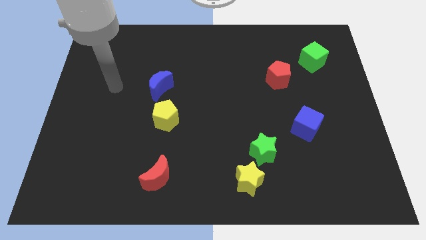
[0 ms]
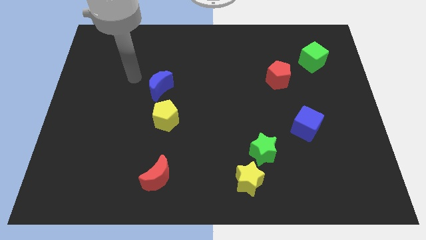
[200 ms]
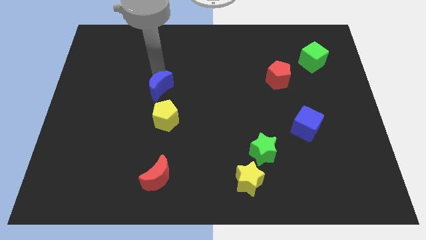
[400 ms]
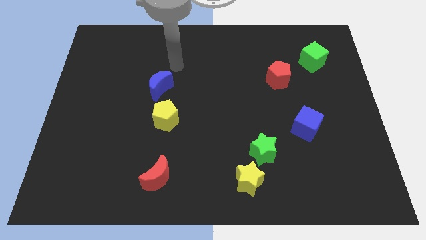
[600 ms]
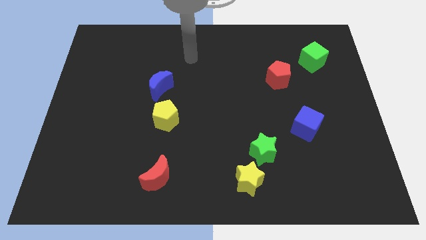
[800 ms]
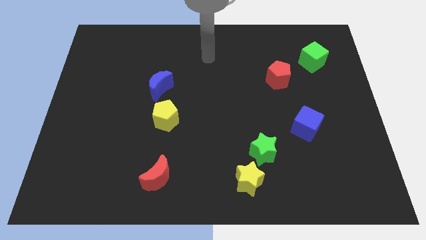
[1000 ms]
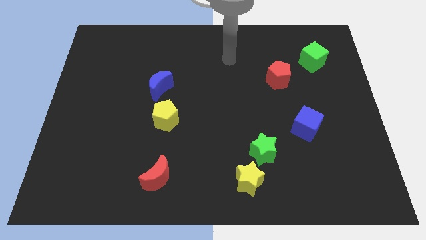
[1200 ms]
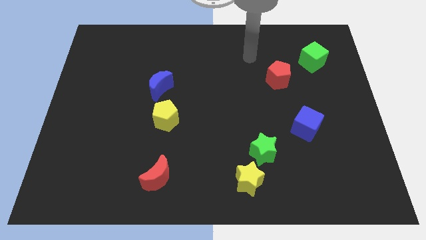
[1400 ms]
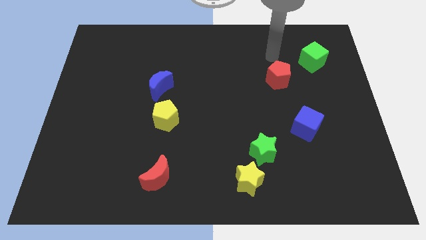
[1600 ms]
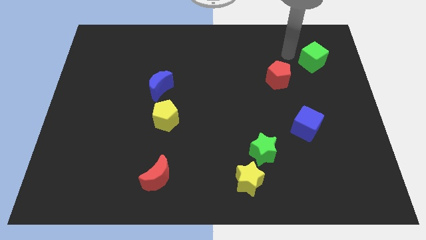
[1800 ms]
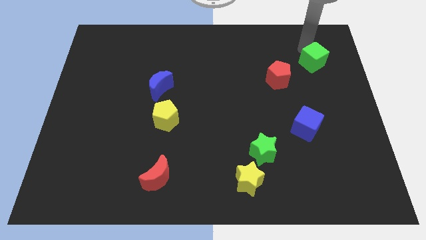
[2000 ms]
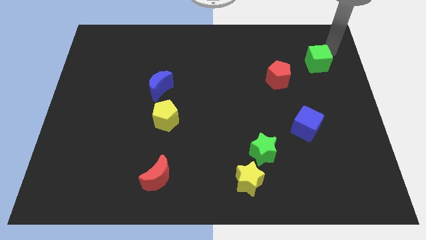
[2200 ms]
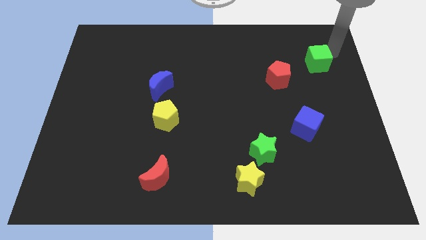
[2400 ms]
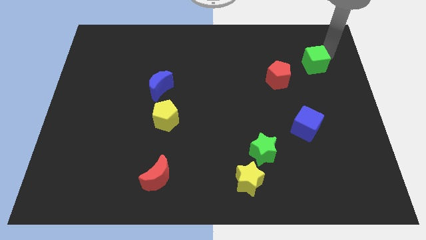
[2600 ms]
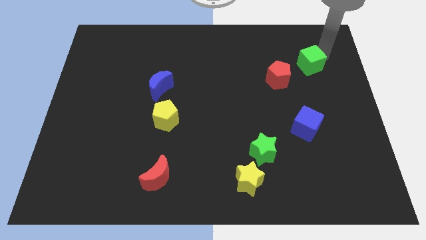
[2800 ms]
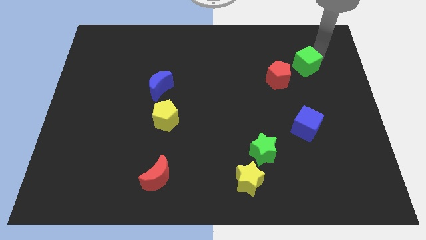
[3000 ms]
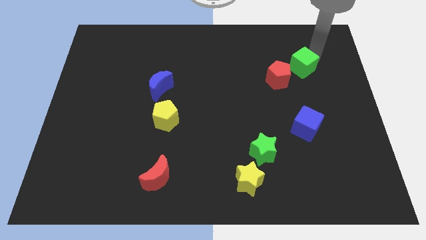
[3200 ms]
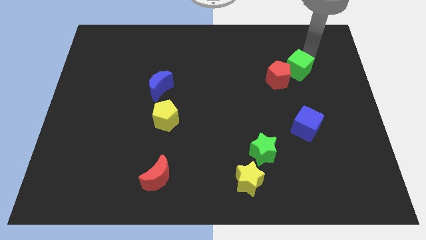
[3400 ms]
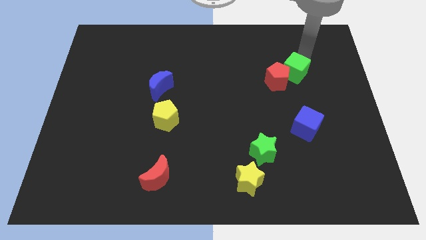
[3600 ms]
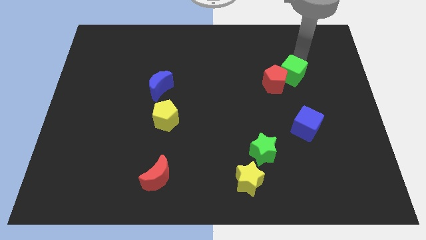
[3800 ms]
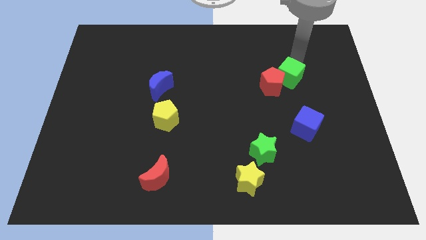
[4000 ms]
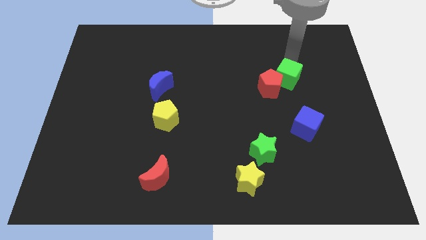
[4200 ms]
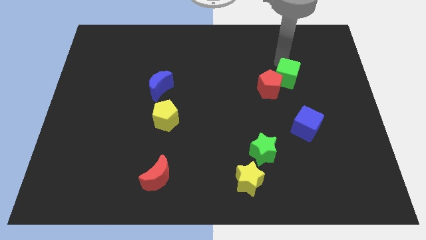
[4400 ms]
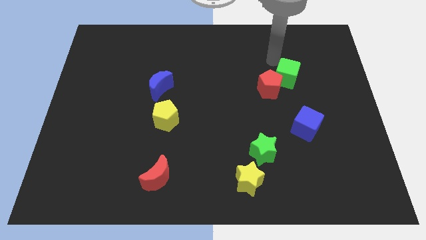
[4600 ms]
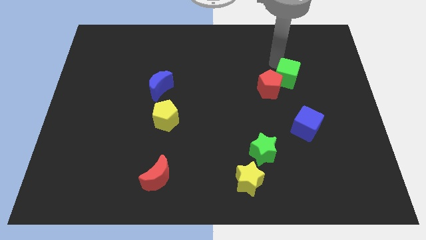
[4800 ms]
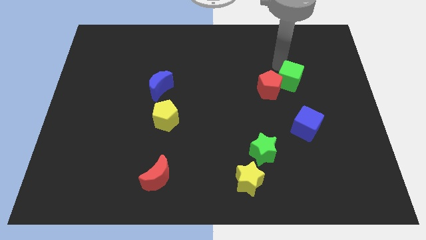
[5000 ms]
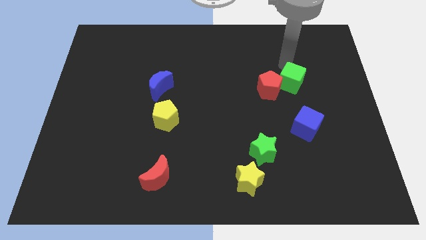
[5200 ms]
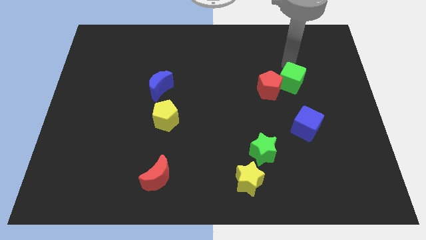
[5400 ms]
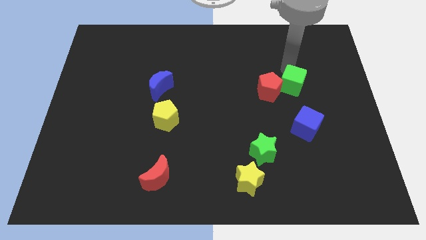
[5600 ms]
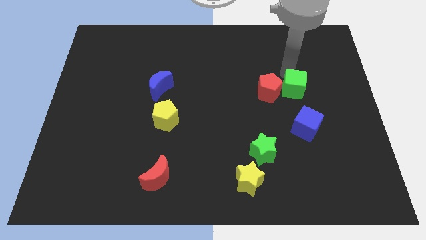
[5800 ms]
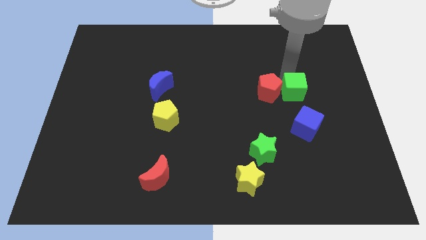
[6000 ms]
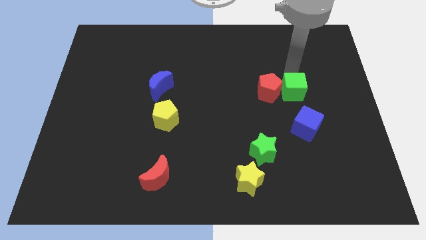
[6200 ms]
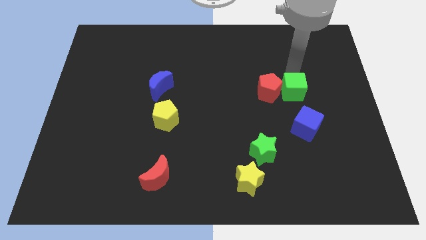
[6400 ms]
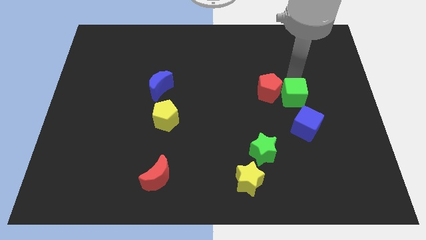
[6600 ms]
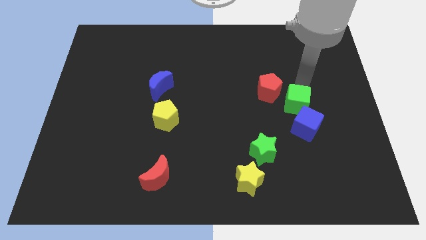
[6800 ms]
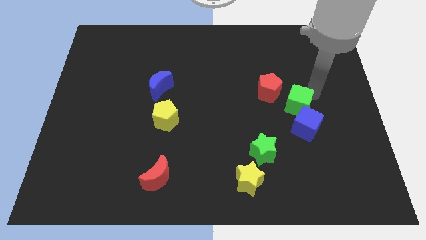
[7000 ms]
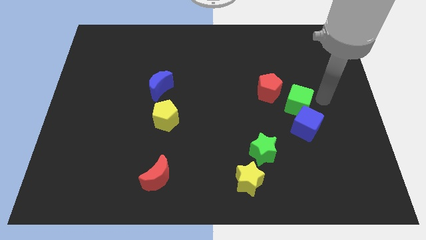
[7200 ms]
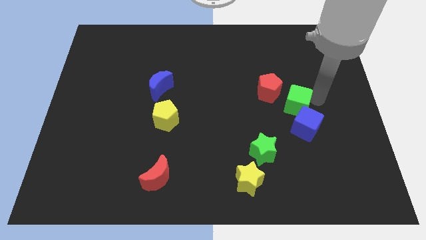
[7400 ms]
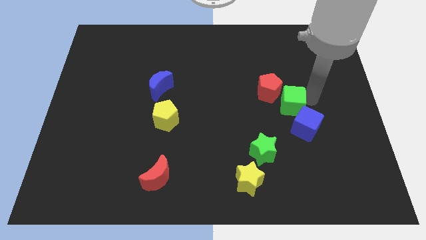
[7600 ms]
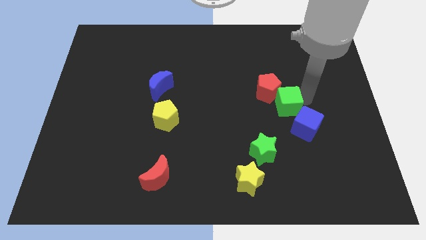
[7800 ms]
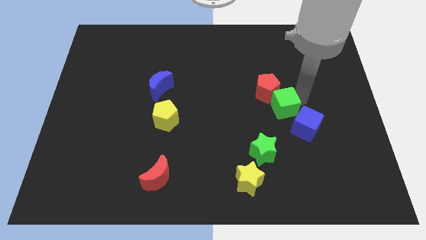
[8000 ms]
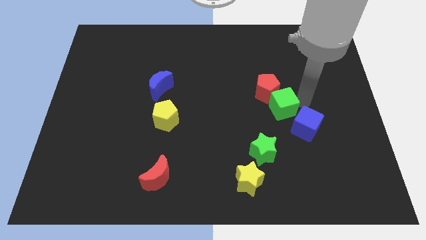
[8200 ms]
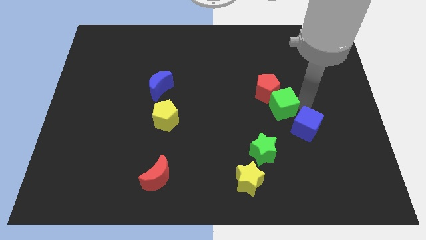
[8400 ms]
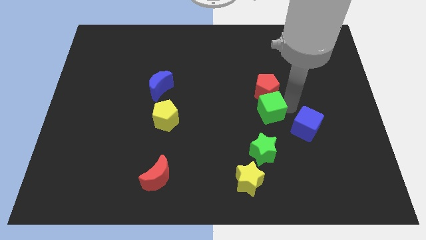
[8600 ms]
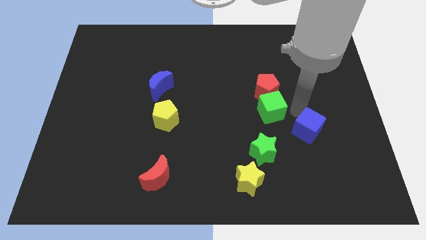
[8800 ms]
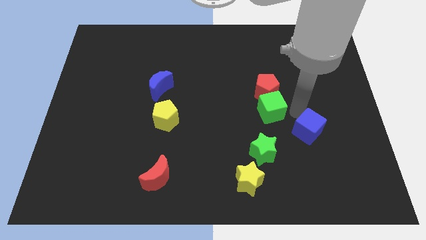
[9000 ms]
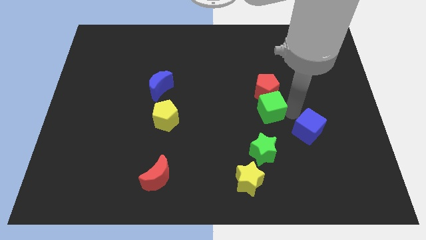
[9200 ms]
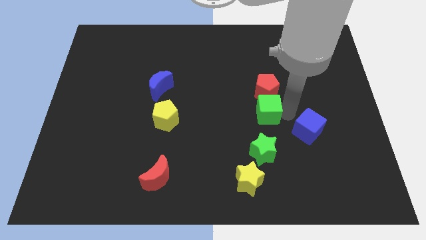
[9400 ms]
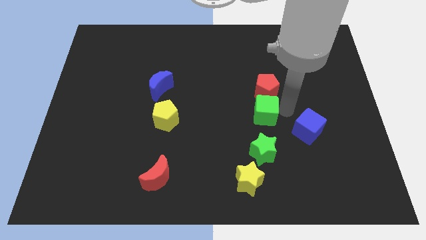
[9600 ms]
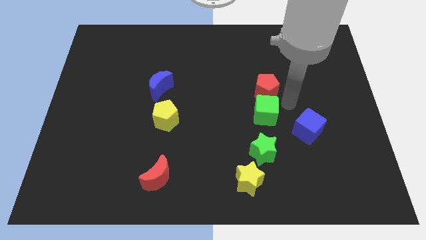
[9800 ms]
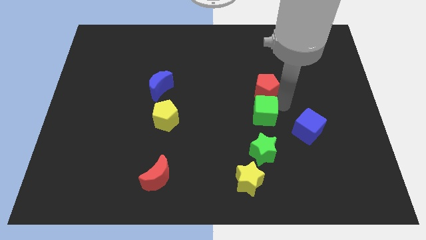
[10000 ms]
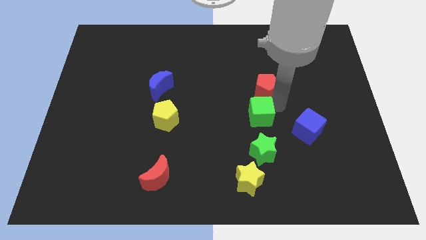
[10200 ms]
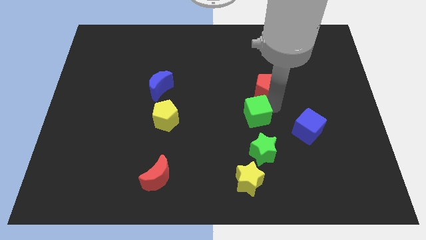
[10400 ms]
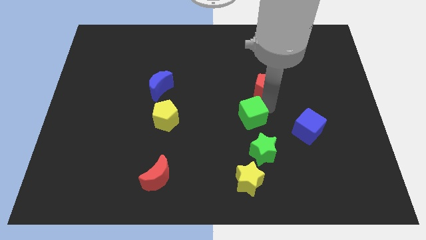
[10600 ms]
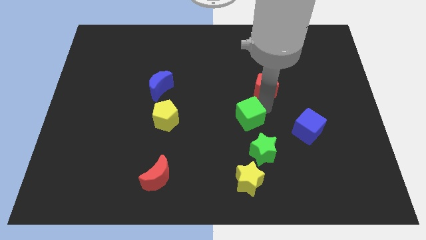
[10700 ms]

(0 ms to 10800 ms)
move the green cube to the top left of the green star

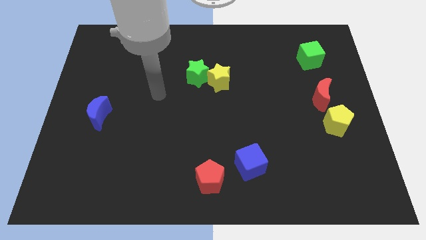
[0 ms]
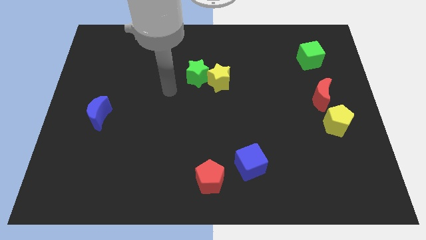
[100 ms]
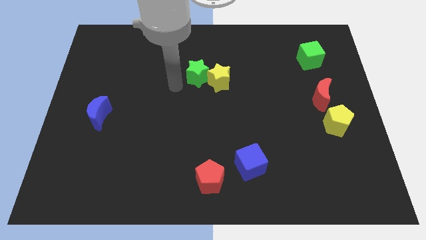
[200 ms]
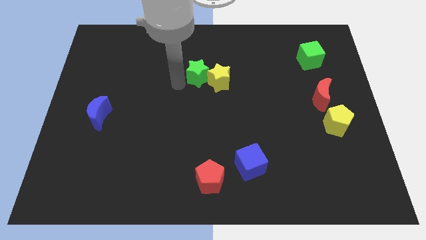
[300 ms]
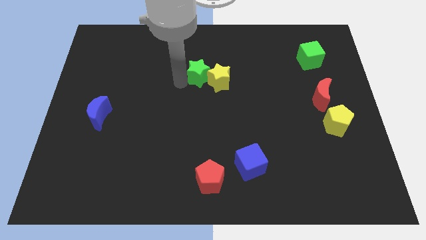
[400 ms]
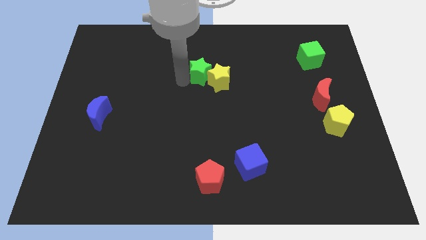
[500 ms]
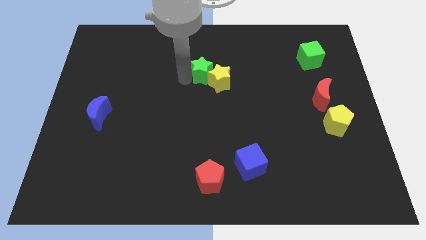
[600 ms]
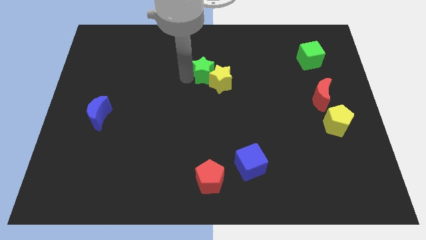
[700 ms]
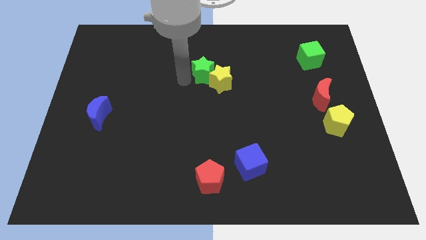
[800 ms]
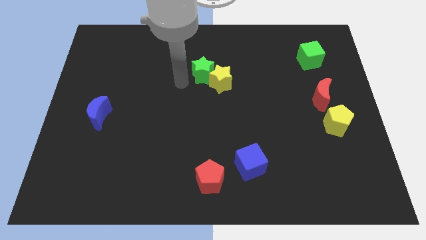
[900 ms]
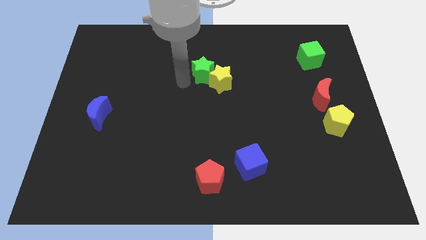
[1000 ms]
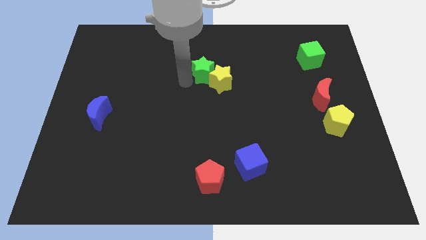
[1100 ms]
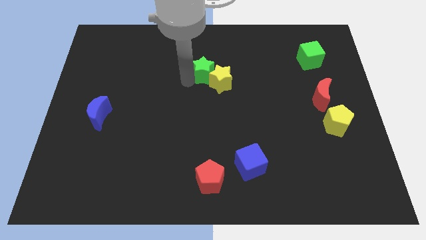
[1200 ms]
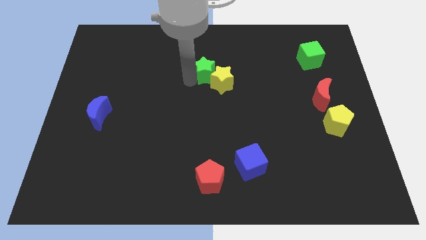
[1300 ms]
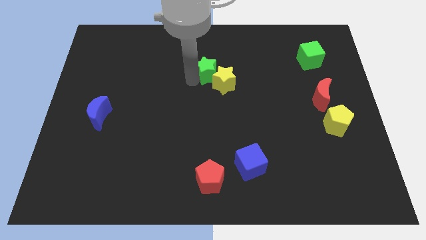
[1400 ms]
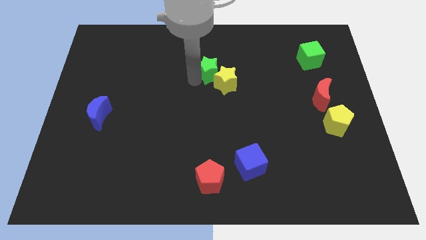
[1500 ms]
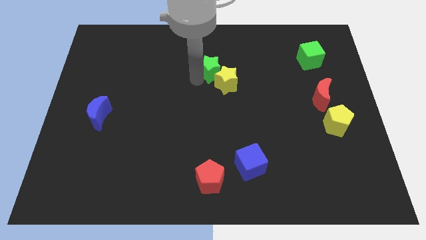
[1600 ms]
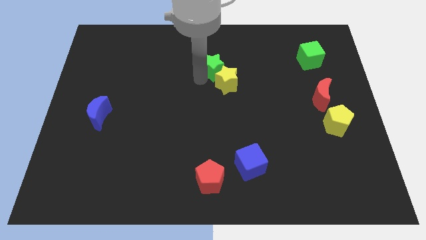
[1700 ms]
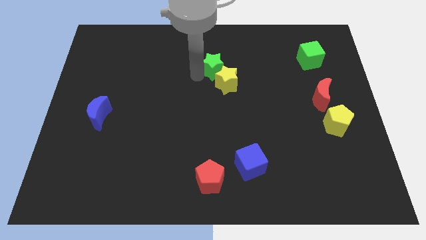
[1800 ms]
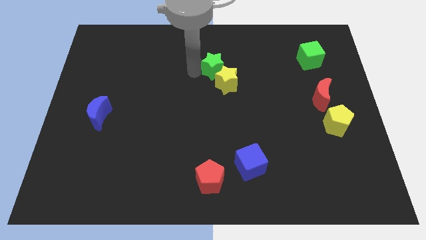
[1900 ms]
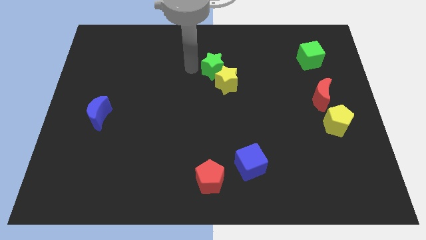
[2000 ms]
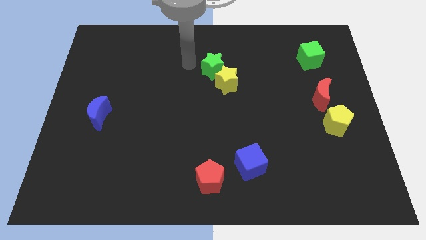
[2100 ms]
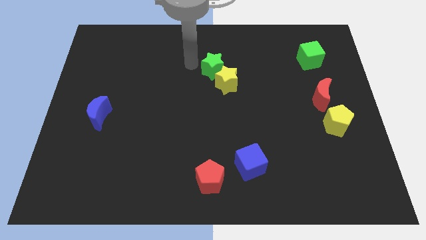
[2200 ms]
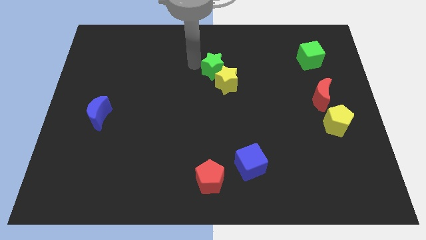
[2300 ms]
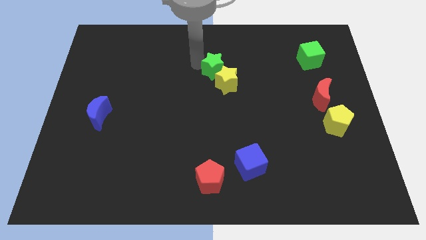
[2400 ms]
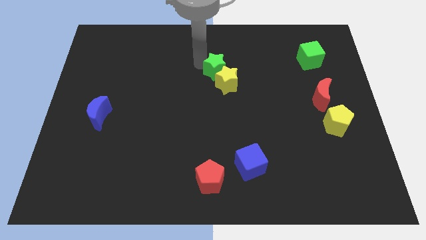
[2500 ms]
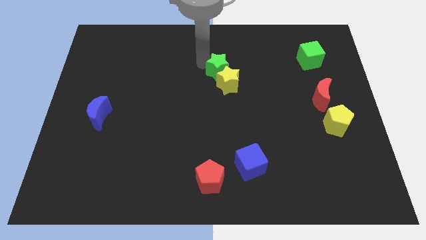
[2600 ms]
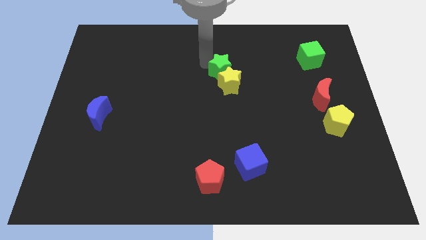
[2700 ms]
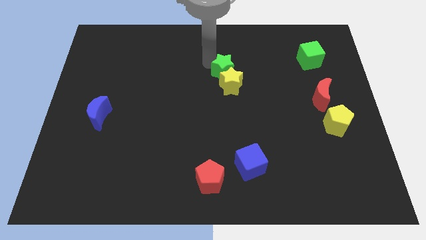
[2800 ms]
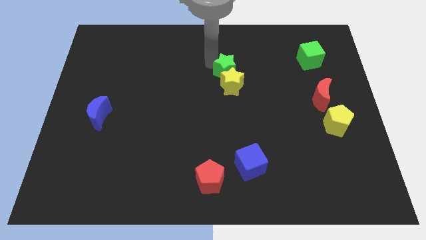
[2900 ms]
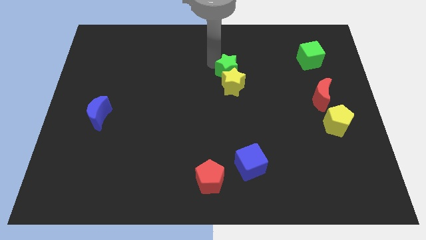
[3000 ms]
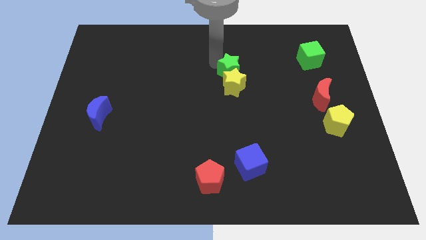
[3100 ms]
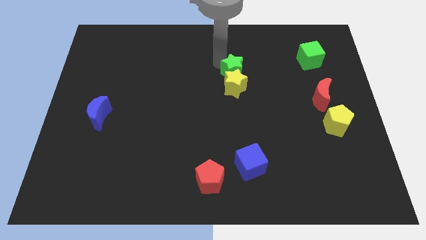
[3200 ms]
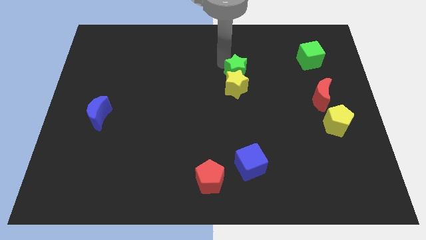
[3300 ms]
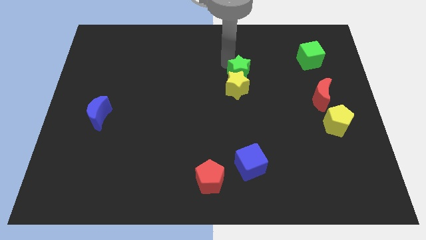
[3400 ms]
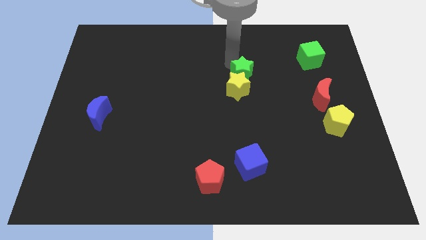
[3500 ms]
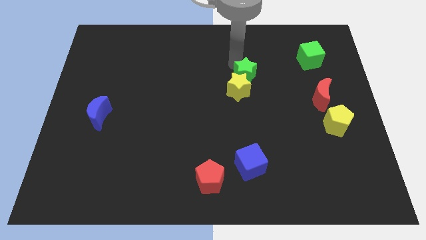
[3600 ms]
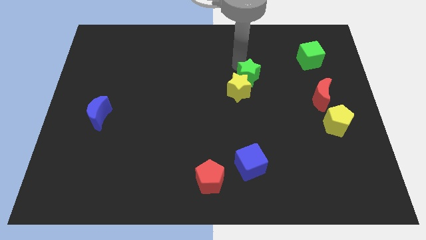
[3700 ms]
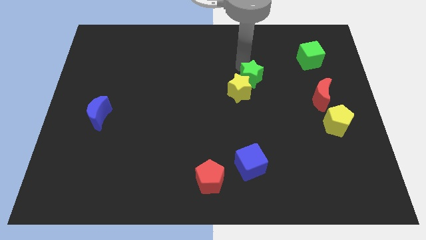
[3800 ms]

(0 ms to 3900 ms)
put the green star just right of the yellow star
